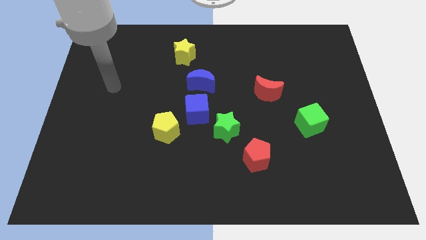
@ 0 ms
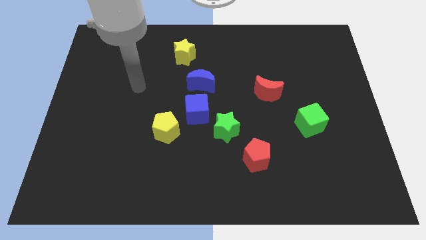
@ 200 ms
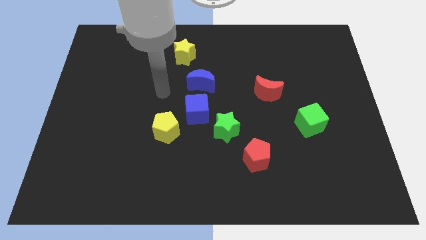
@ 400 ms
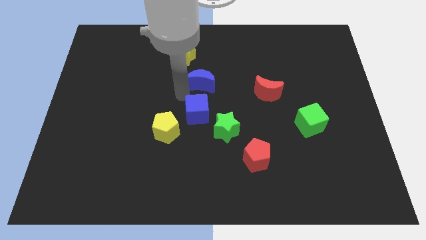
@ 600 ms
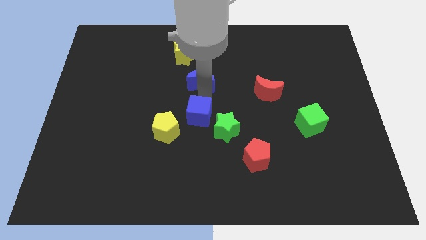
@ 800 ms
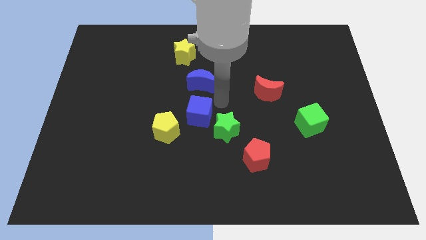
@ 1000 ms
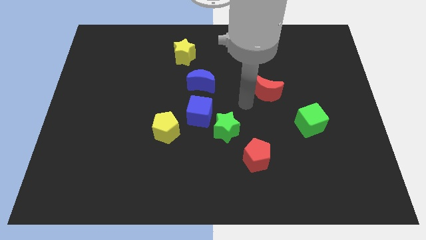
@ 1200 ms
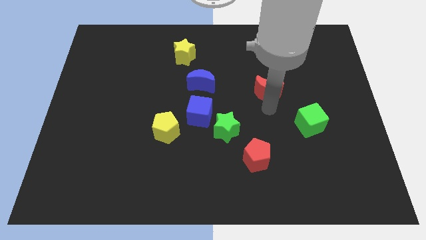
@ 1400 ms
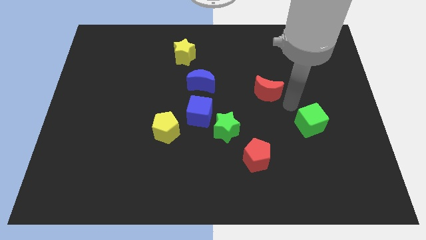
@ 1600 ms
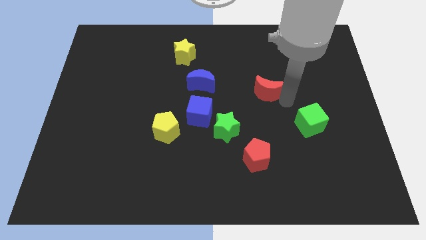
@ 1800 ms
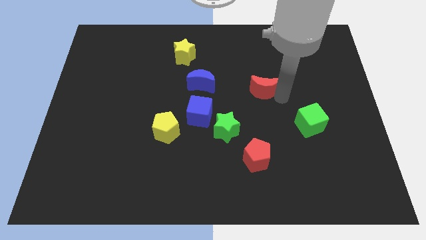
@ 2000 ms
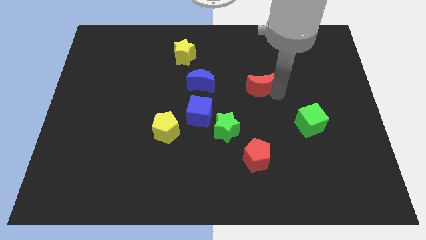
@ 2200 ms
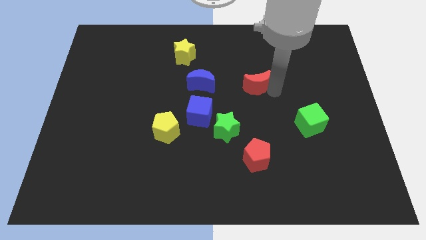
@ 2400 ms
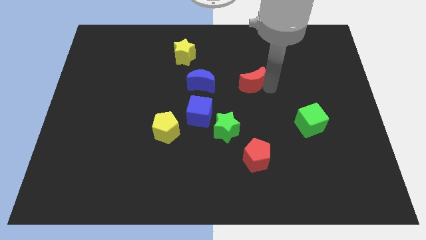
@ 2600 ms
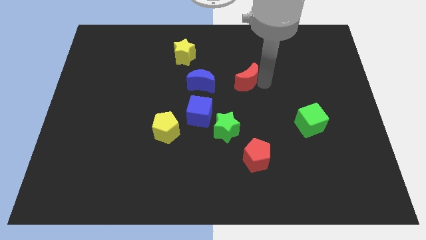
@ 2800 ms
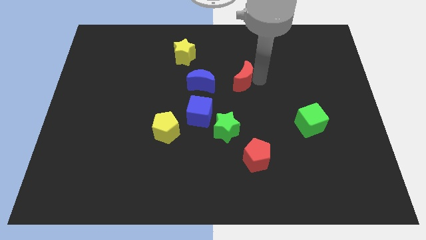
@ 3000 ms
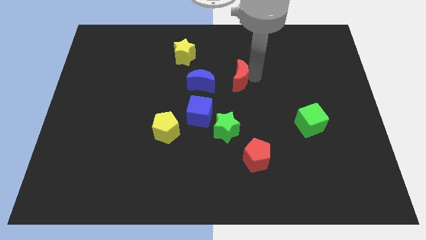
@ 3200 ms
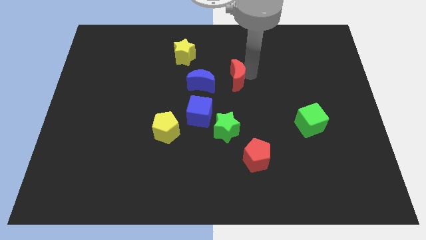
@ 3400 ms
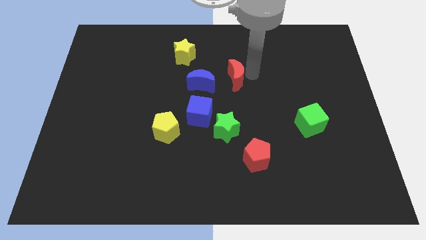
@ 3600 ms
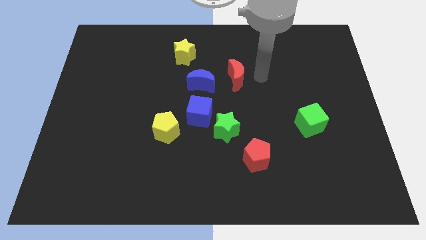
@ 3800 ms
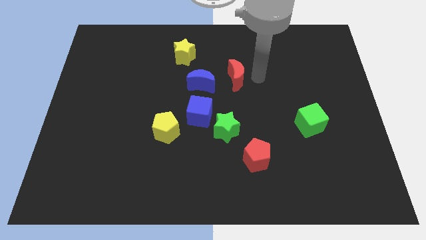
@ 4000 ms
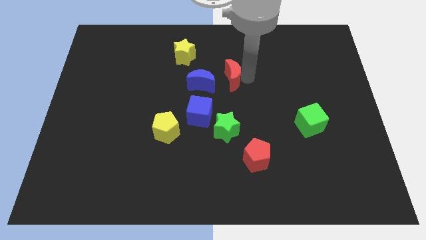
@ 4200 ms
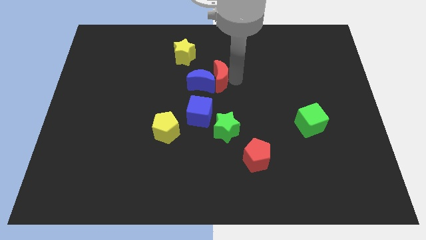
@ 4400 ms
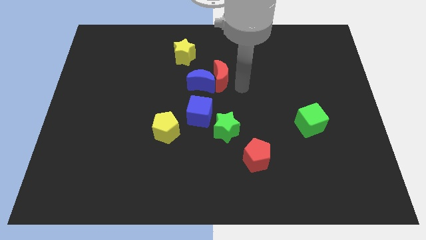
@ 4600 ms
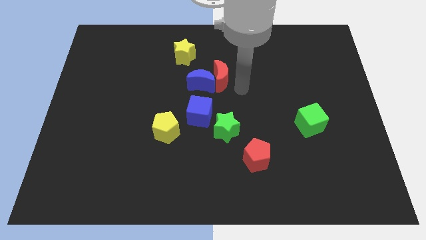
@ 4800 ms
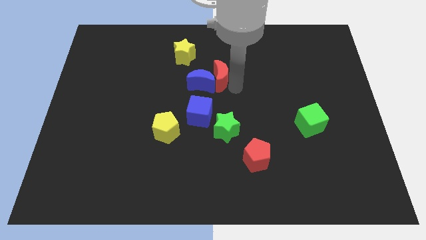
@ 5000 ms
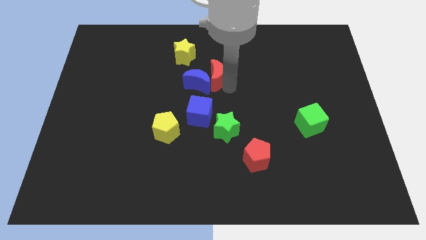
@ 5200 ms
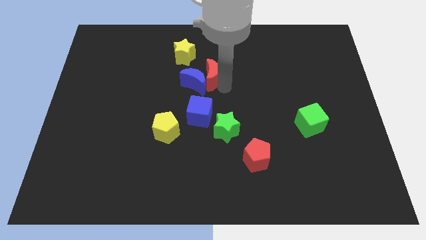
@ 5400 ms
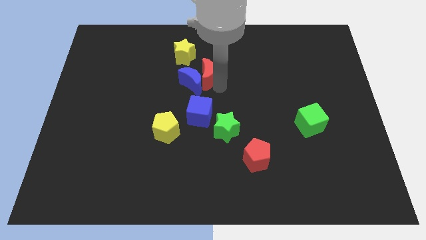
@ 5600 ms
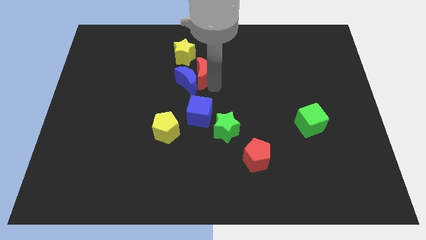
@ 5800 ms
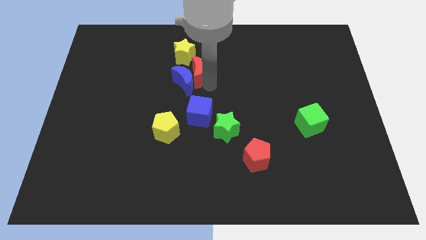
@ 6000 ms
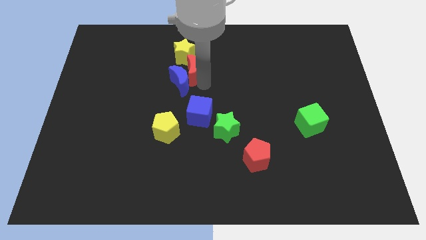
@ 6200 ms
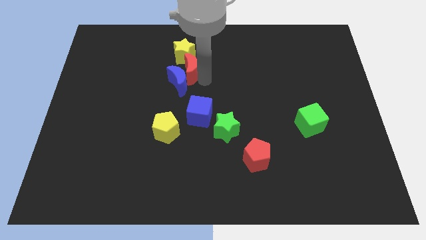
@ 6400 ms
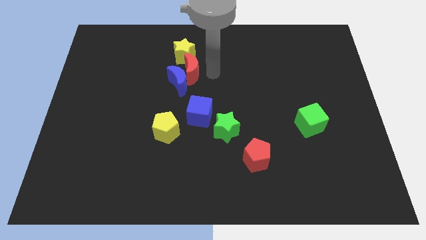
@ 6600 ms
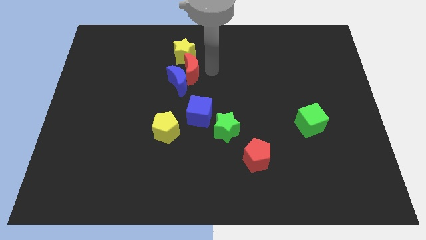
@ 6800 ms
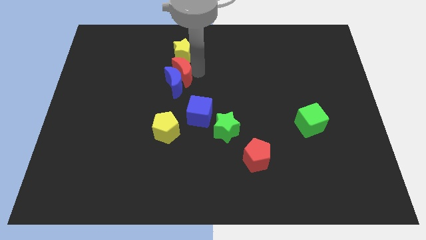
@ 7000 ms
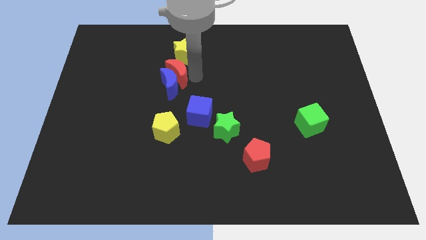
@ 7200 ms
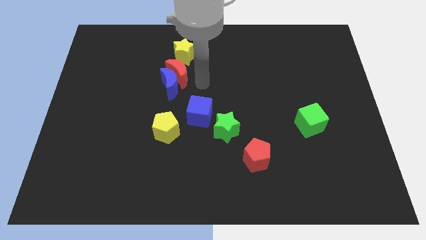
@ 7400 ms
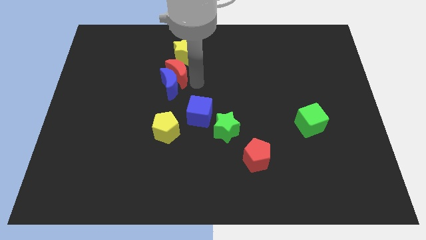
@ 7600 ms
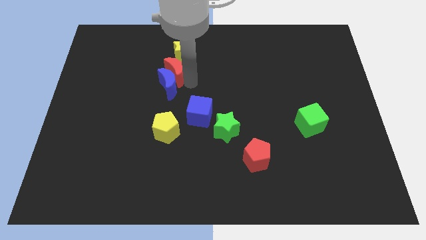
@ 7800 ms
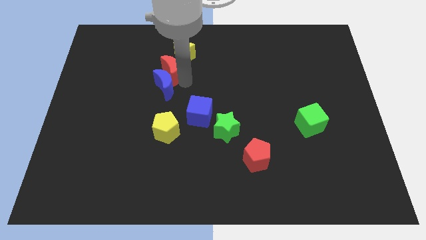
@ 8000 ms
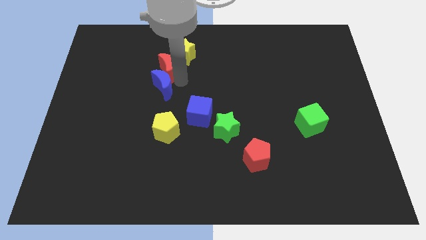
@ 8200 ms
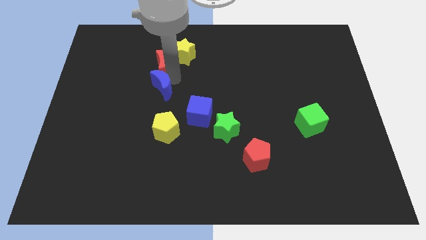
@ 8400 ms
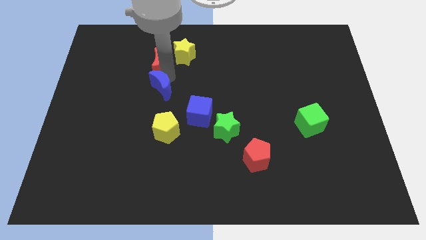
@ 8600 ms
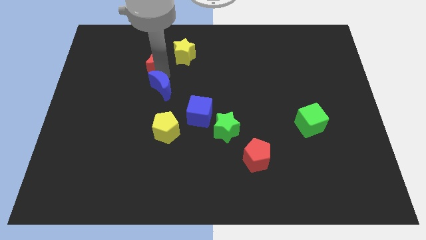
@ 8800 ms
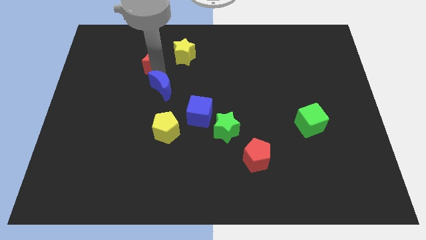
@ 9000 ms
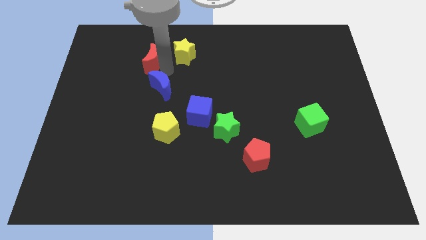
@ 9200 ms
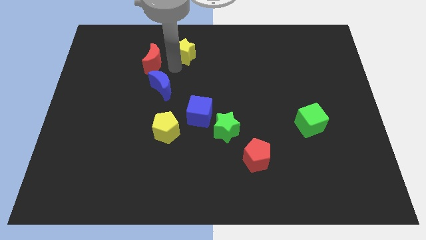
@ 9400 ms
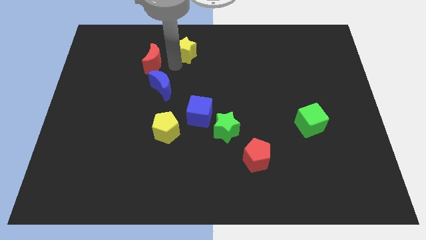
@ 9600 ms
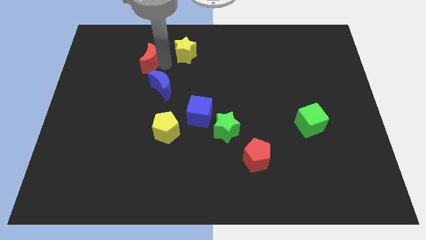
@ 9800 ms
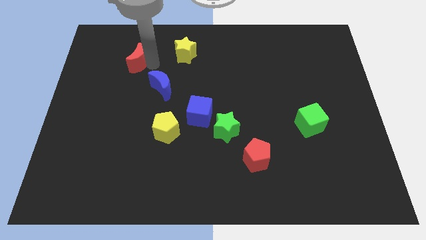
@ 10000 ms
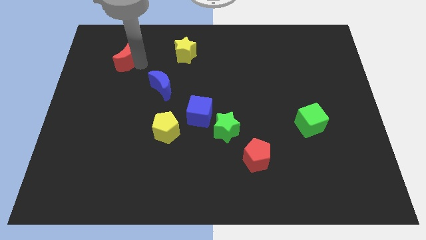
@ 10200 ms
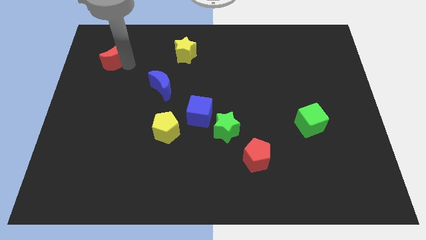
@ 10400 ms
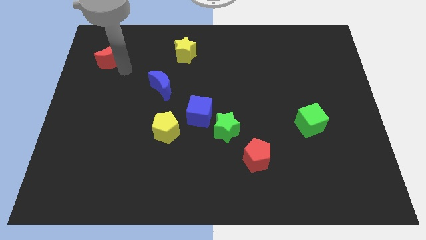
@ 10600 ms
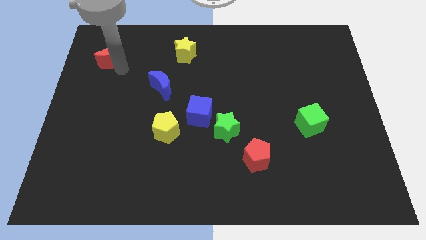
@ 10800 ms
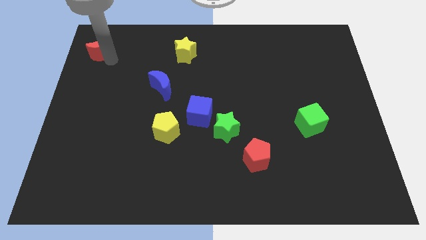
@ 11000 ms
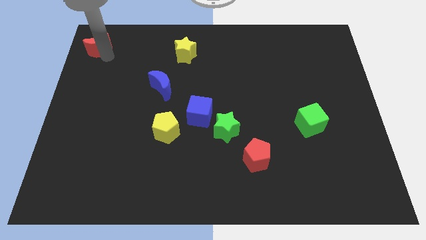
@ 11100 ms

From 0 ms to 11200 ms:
put the red moon to the top left

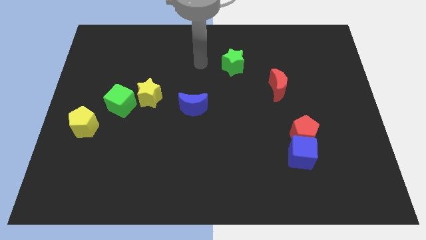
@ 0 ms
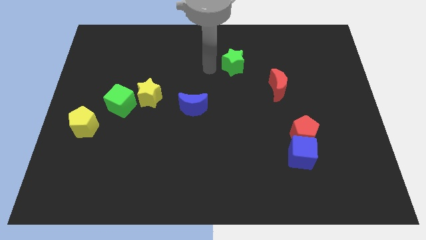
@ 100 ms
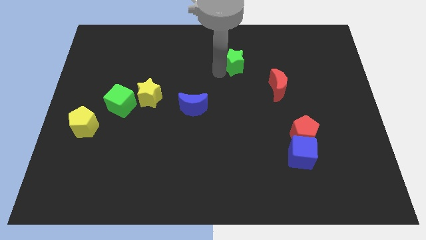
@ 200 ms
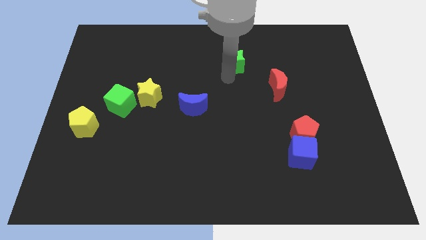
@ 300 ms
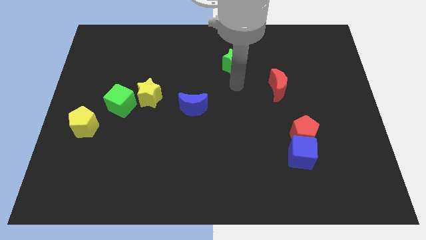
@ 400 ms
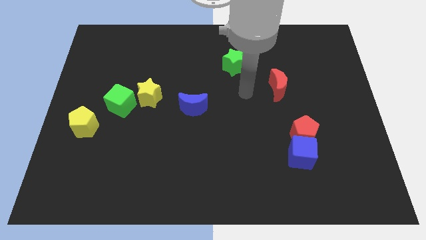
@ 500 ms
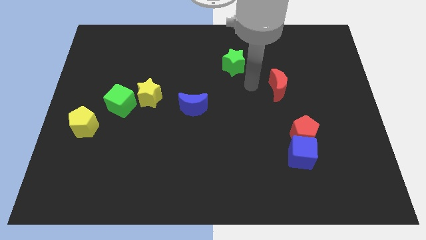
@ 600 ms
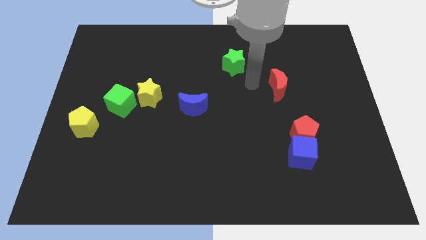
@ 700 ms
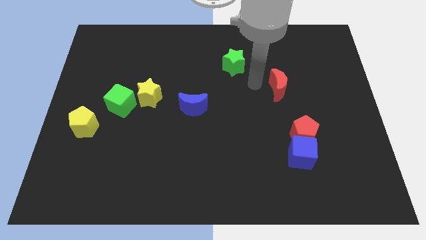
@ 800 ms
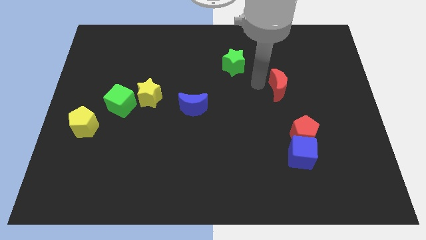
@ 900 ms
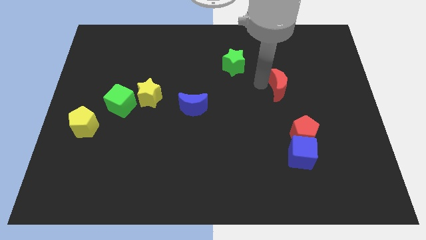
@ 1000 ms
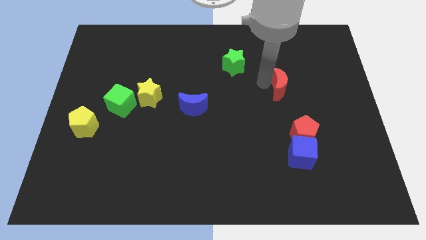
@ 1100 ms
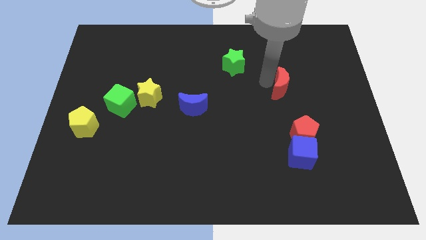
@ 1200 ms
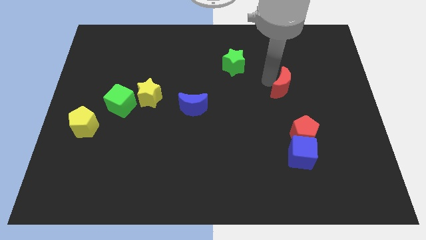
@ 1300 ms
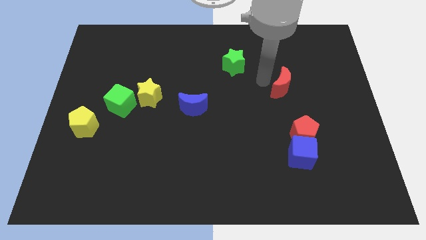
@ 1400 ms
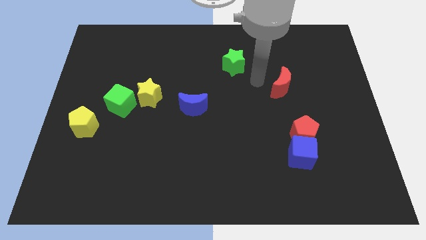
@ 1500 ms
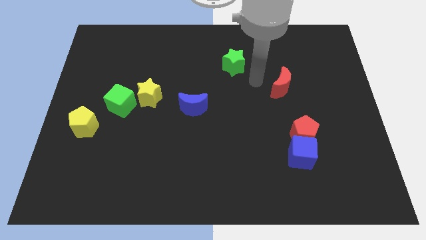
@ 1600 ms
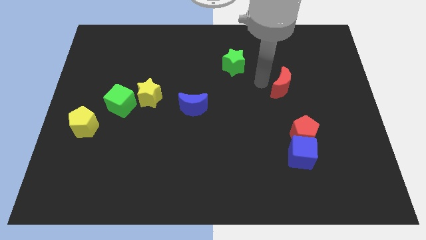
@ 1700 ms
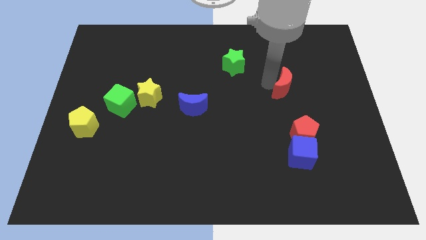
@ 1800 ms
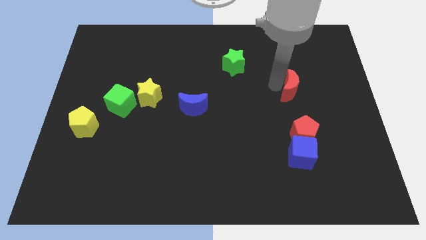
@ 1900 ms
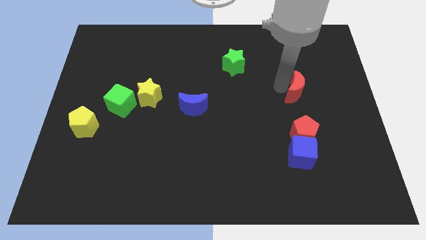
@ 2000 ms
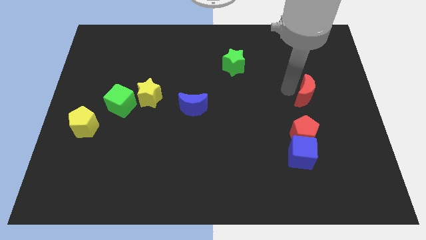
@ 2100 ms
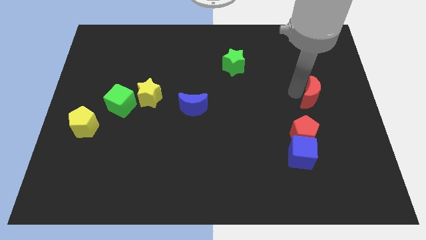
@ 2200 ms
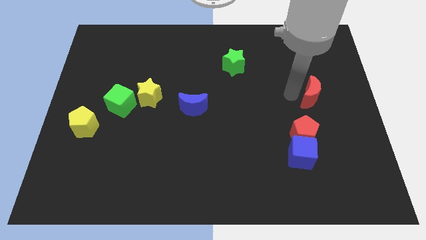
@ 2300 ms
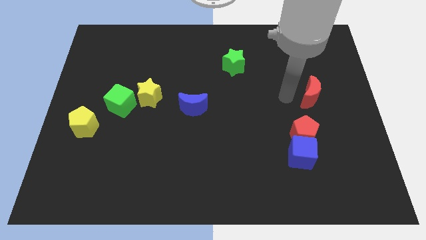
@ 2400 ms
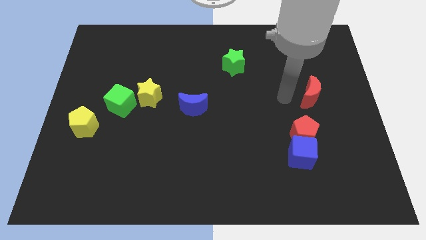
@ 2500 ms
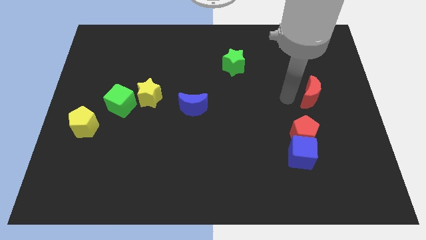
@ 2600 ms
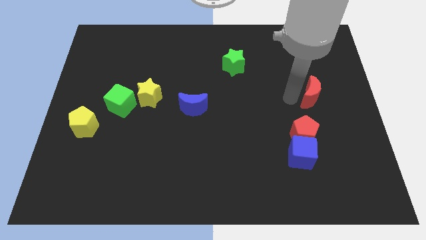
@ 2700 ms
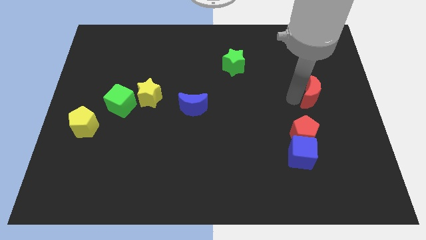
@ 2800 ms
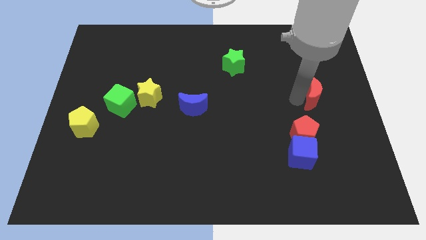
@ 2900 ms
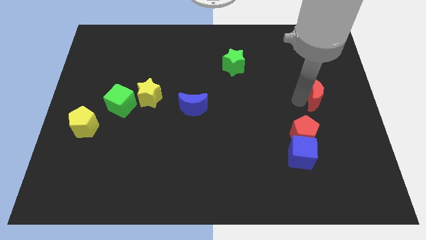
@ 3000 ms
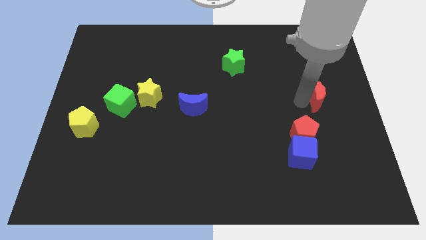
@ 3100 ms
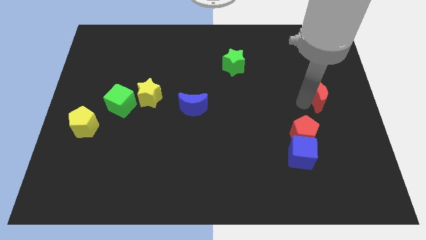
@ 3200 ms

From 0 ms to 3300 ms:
move the red moon to the center right
